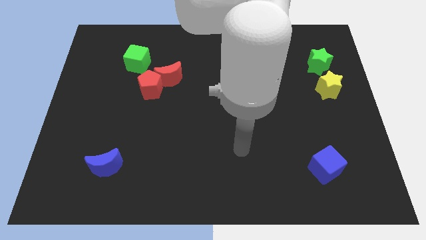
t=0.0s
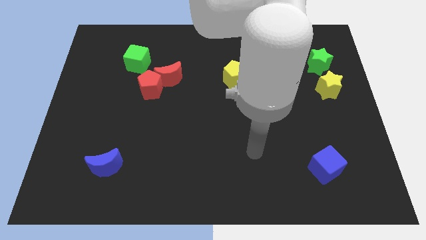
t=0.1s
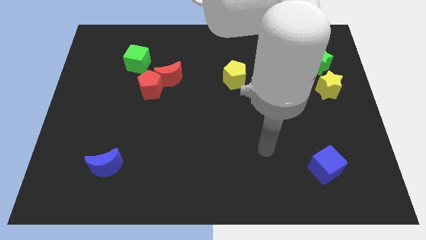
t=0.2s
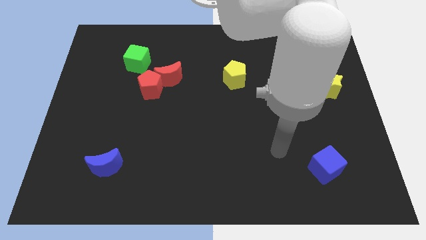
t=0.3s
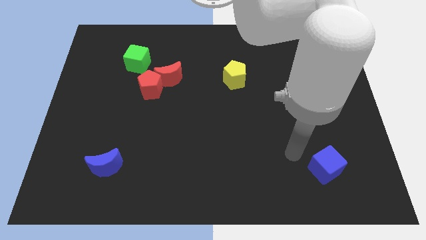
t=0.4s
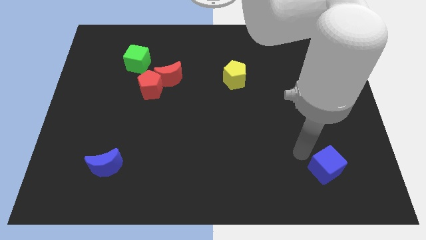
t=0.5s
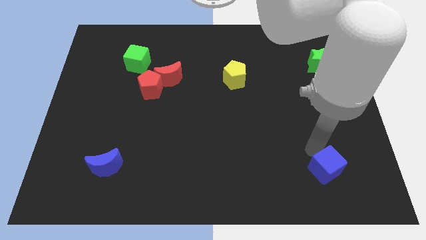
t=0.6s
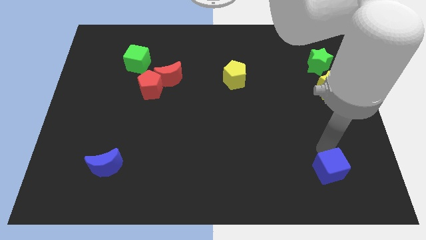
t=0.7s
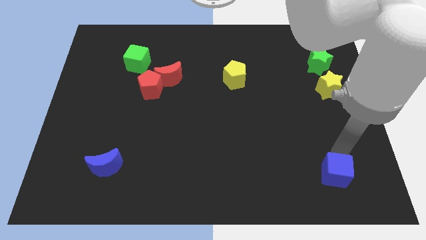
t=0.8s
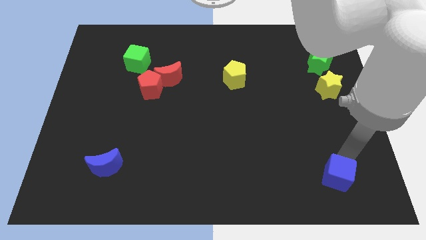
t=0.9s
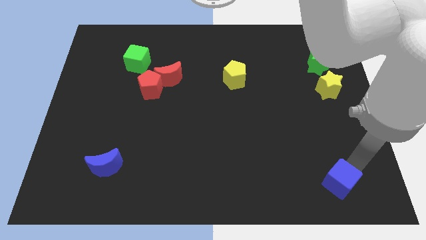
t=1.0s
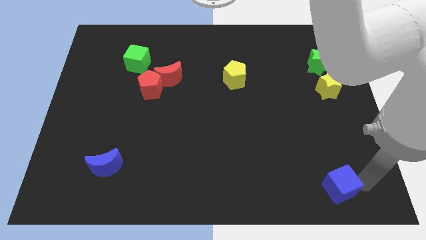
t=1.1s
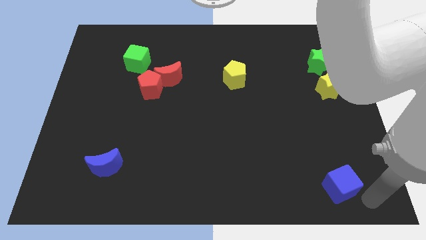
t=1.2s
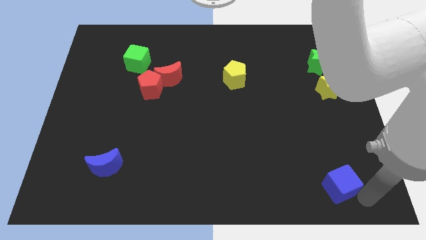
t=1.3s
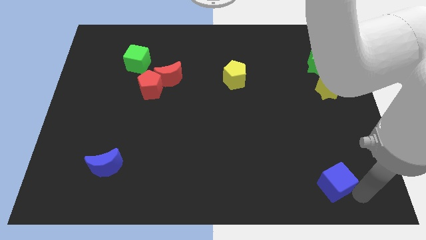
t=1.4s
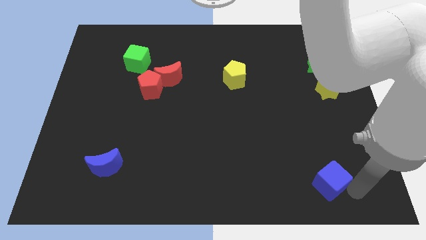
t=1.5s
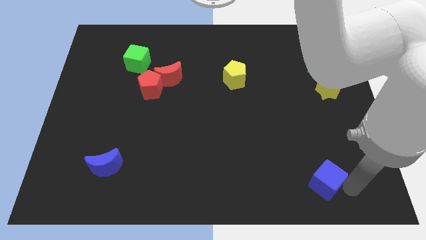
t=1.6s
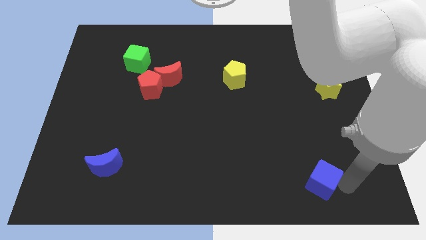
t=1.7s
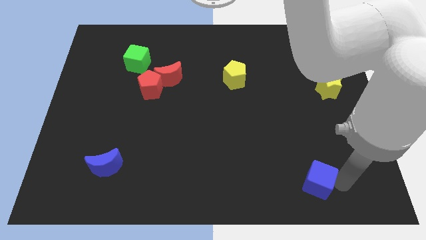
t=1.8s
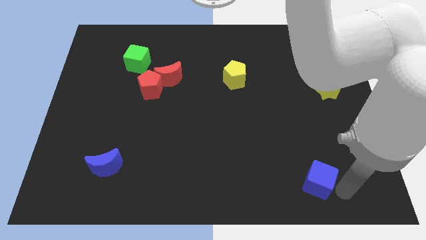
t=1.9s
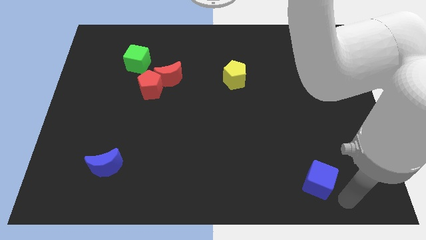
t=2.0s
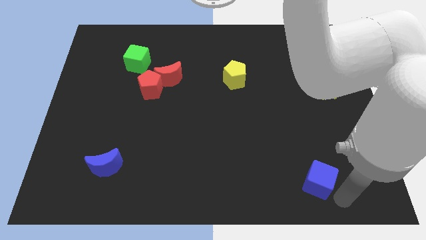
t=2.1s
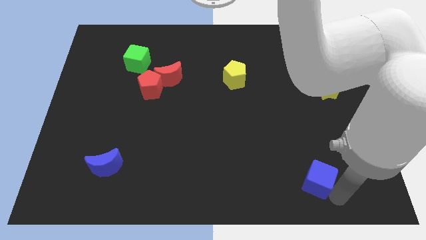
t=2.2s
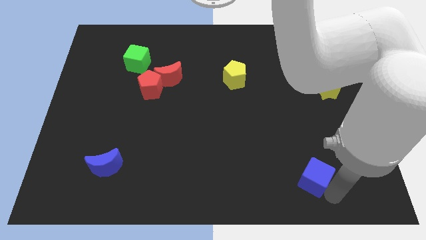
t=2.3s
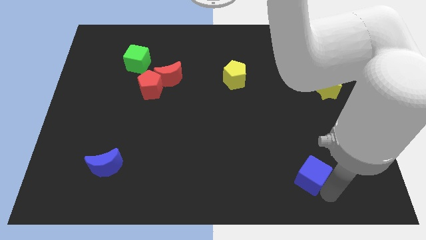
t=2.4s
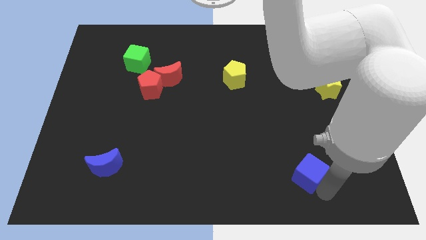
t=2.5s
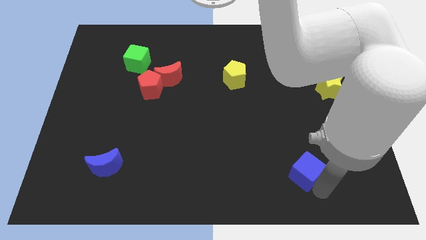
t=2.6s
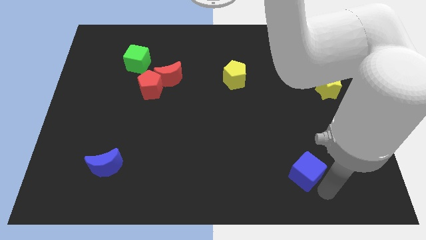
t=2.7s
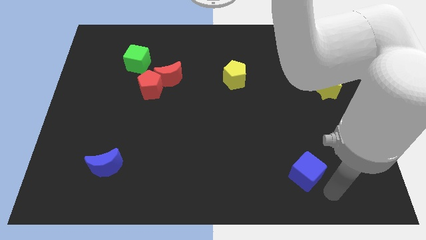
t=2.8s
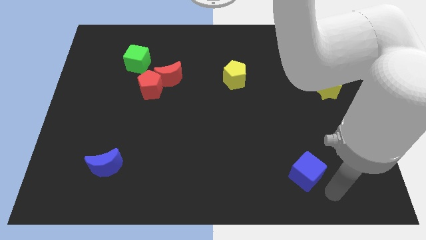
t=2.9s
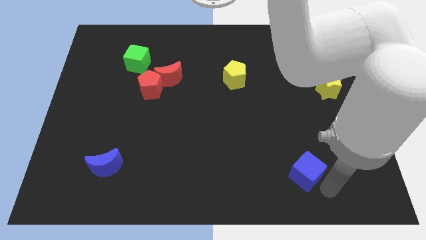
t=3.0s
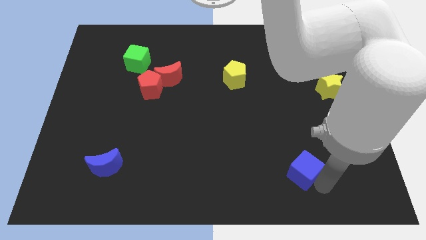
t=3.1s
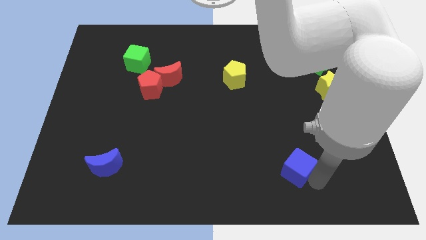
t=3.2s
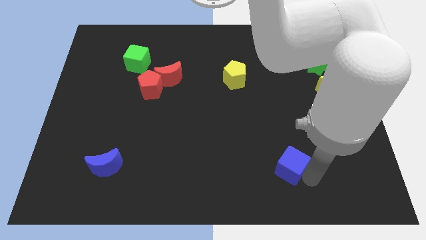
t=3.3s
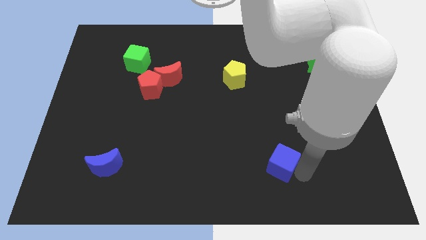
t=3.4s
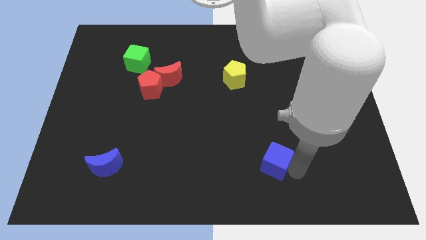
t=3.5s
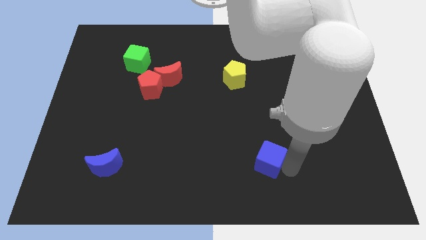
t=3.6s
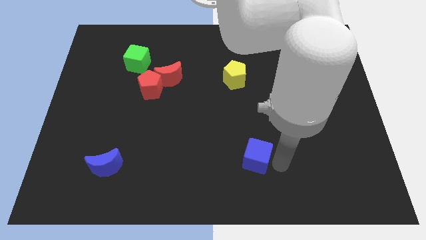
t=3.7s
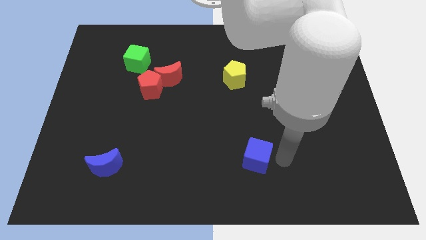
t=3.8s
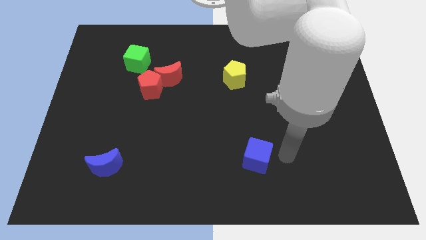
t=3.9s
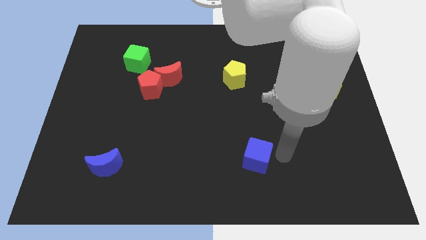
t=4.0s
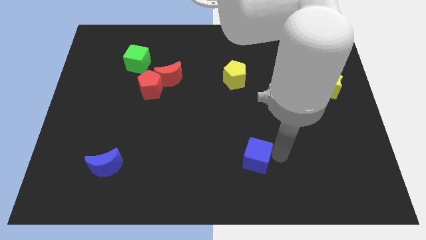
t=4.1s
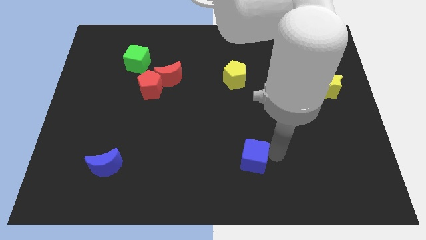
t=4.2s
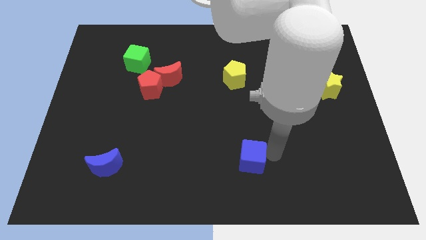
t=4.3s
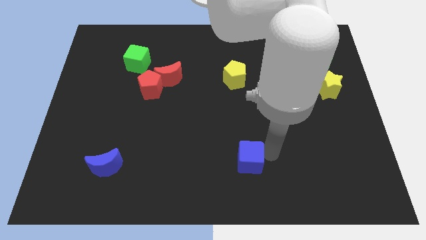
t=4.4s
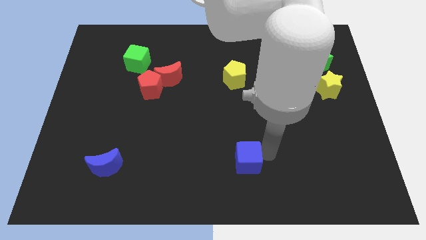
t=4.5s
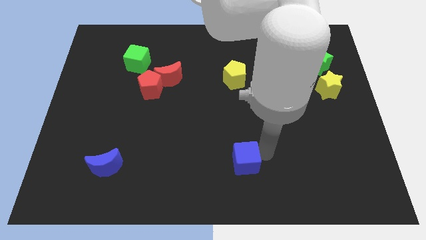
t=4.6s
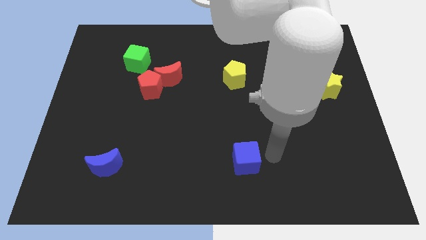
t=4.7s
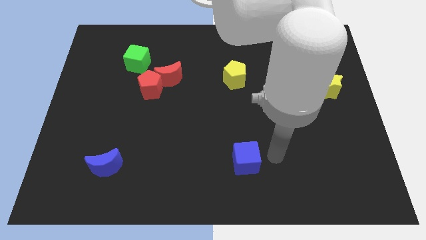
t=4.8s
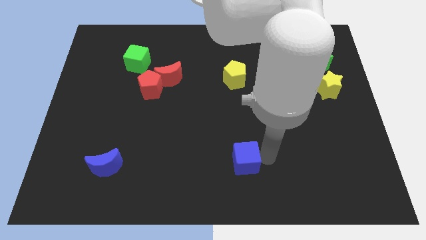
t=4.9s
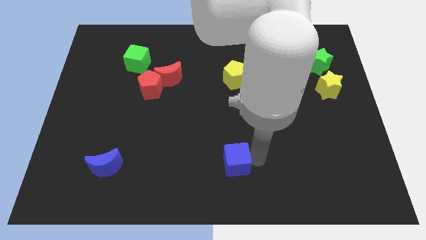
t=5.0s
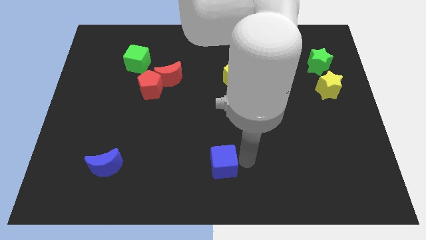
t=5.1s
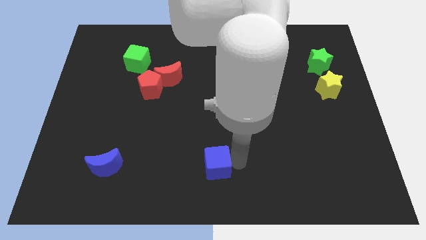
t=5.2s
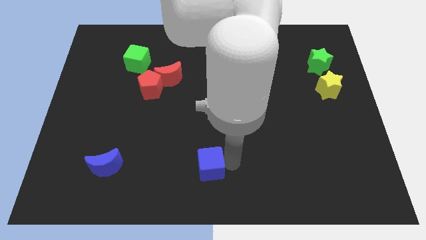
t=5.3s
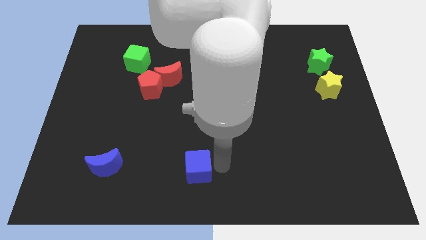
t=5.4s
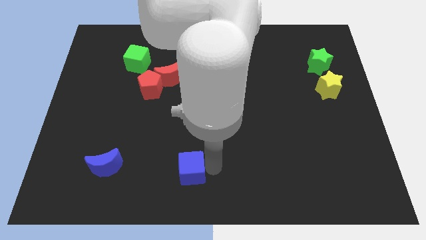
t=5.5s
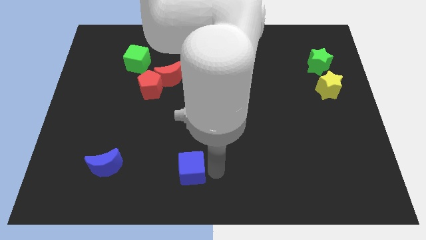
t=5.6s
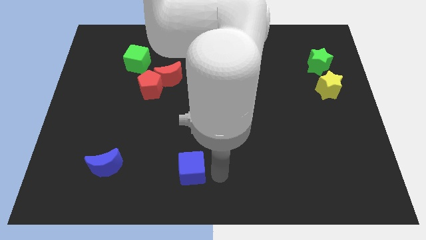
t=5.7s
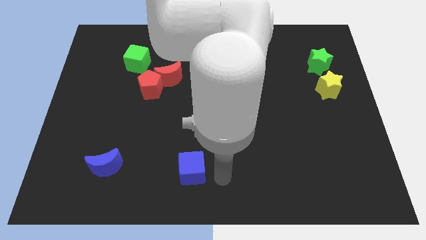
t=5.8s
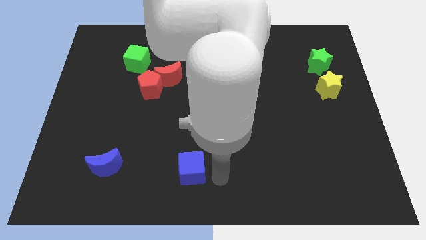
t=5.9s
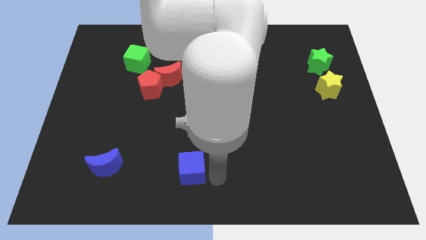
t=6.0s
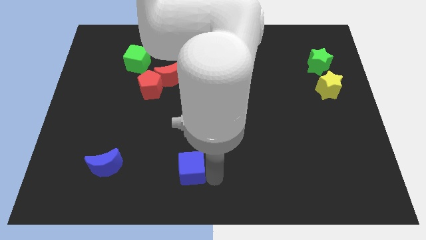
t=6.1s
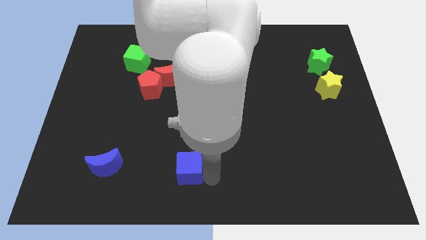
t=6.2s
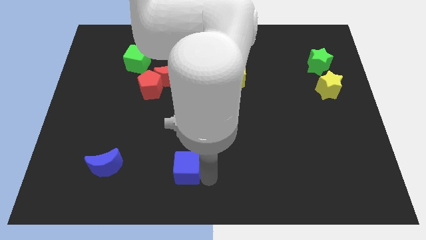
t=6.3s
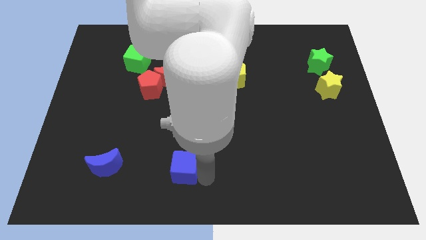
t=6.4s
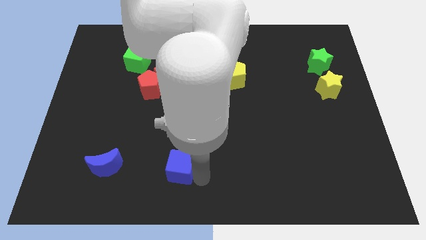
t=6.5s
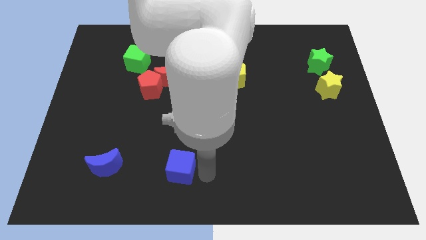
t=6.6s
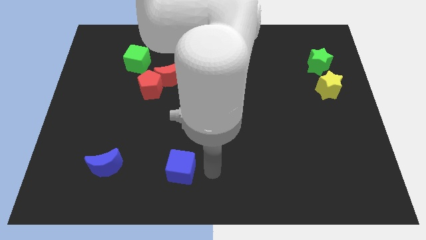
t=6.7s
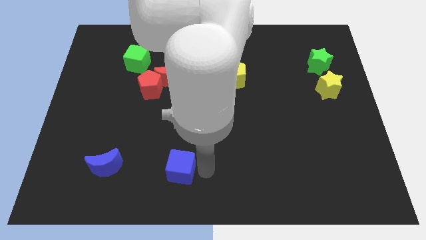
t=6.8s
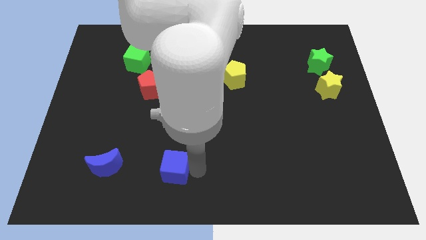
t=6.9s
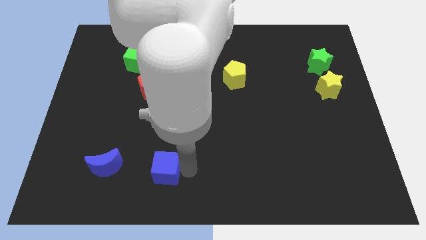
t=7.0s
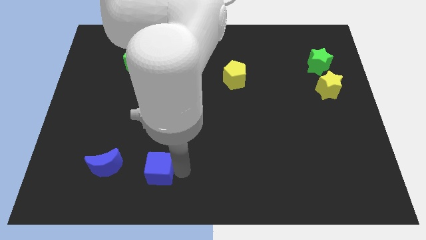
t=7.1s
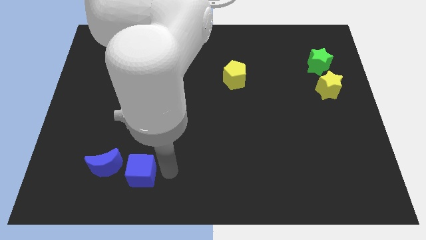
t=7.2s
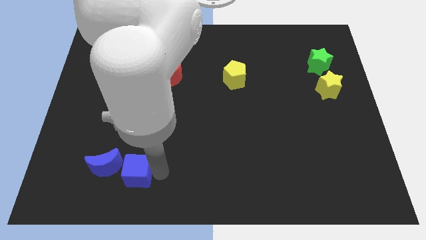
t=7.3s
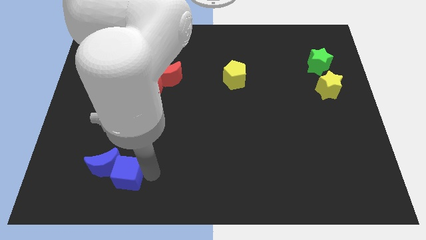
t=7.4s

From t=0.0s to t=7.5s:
move the blue cube towards the blue moon
